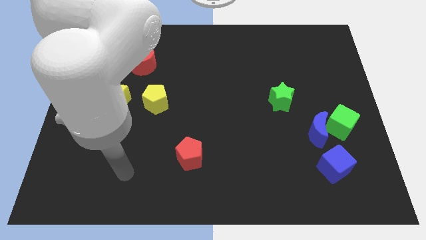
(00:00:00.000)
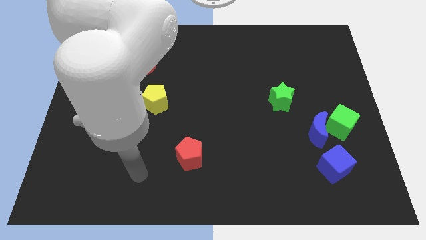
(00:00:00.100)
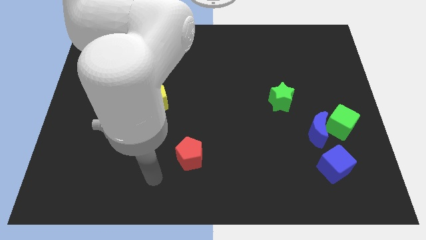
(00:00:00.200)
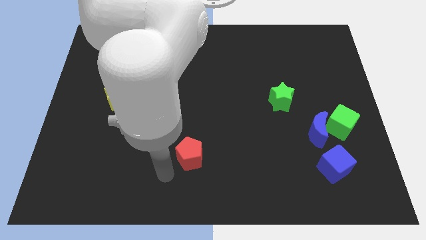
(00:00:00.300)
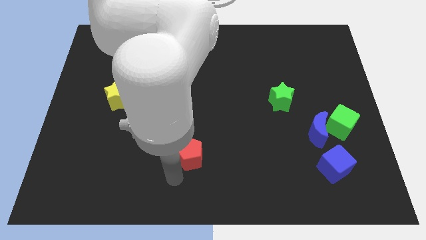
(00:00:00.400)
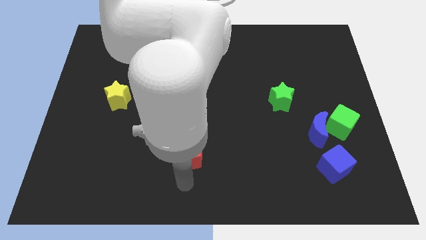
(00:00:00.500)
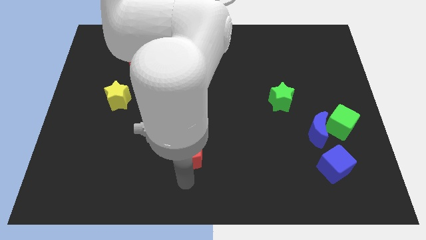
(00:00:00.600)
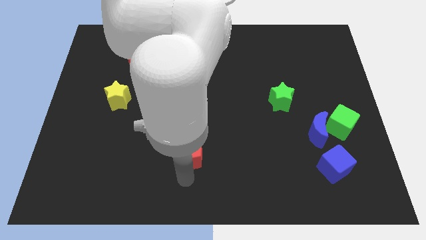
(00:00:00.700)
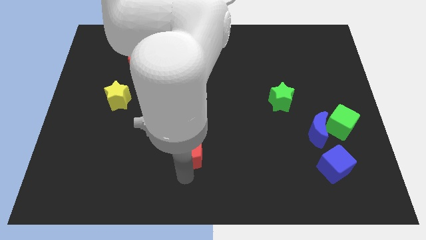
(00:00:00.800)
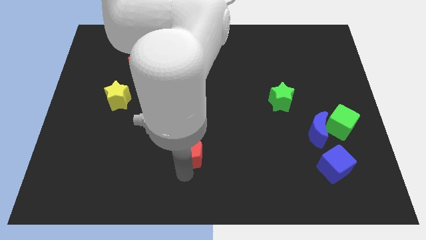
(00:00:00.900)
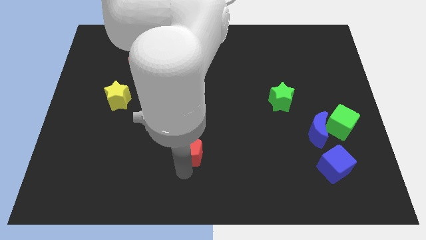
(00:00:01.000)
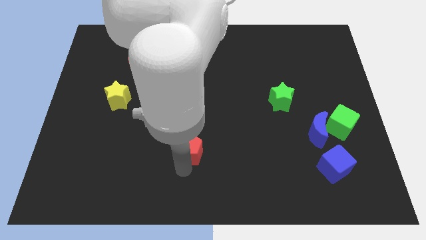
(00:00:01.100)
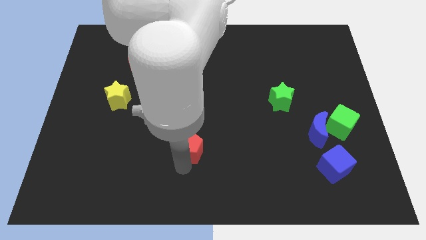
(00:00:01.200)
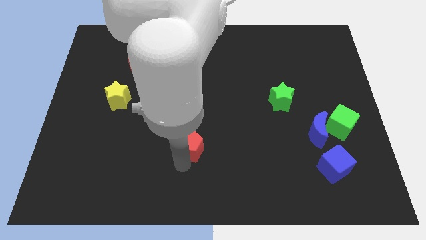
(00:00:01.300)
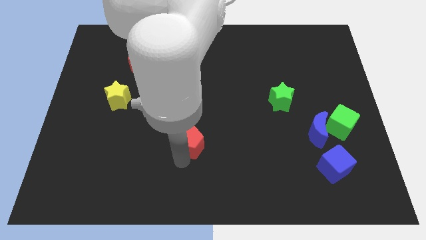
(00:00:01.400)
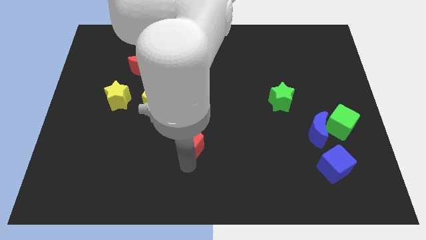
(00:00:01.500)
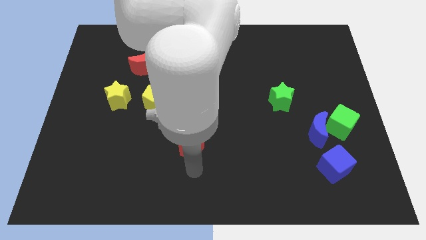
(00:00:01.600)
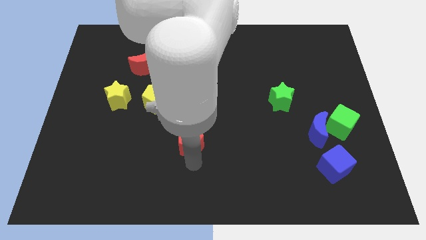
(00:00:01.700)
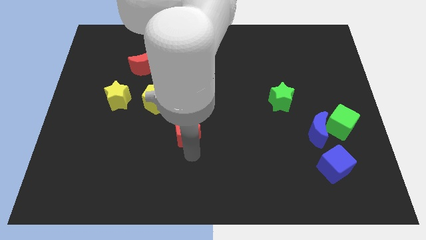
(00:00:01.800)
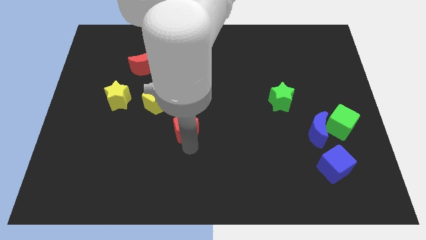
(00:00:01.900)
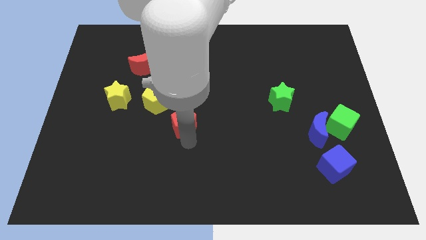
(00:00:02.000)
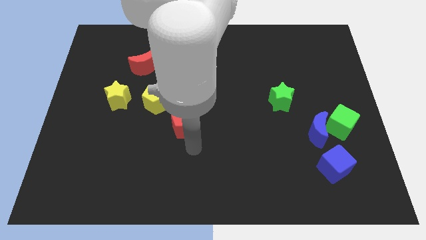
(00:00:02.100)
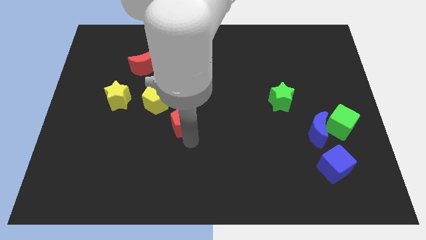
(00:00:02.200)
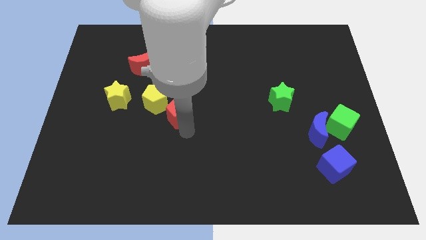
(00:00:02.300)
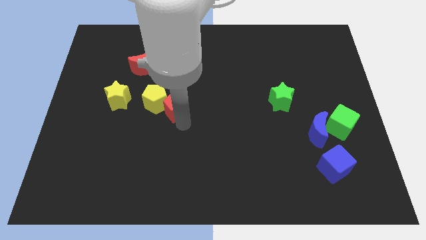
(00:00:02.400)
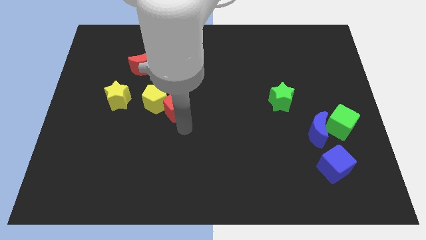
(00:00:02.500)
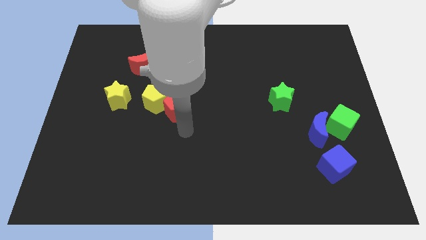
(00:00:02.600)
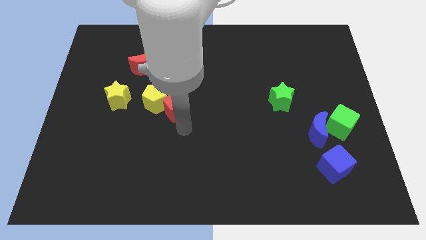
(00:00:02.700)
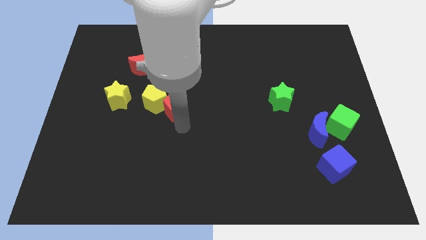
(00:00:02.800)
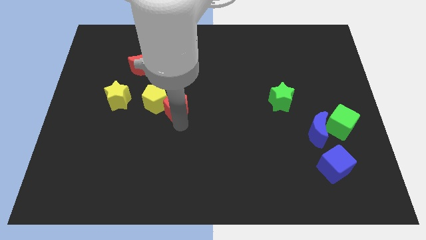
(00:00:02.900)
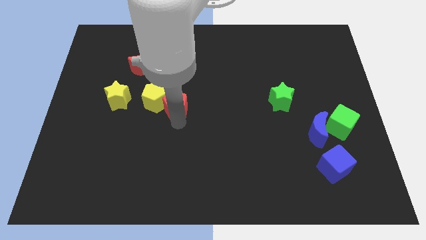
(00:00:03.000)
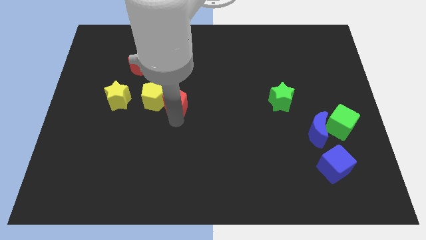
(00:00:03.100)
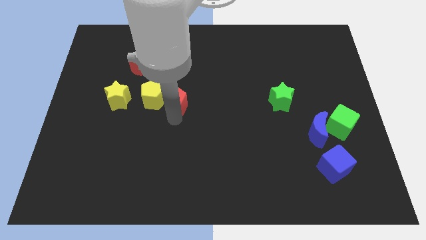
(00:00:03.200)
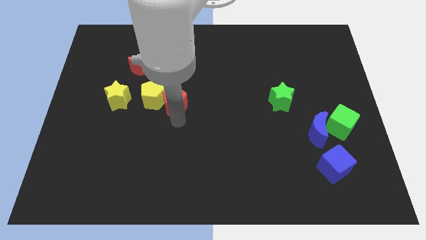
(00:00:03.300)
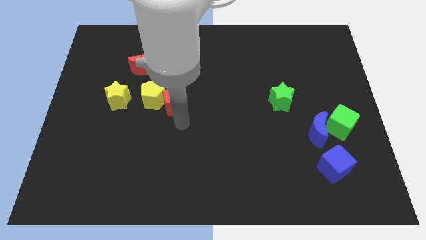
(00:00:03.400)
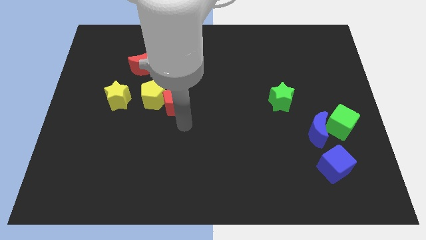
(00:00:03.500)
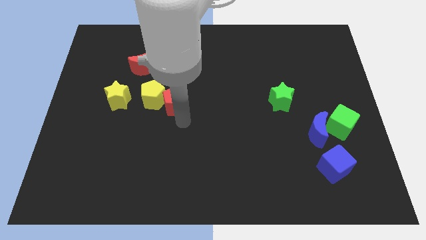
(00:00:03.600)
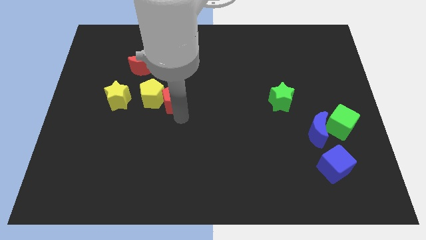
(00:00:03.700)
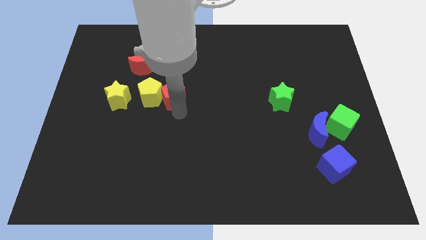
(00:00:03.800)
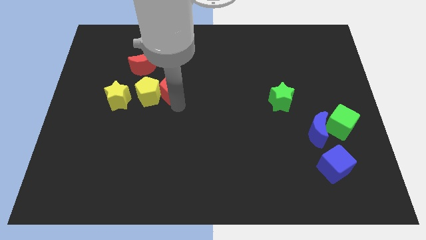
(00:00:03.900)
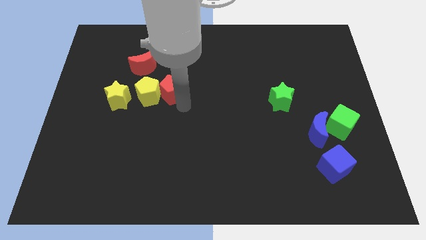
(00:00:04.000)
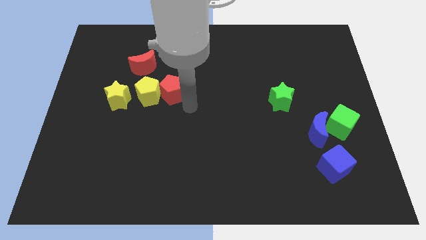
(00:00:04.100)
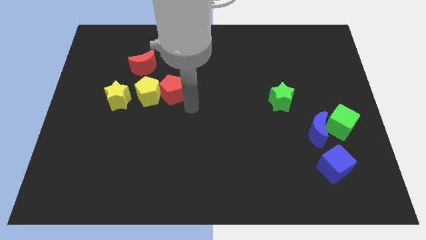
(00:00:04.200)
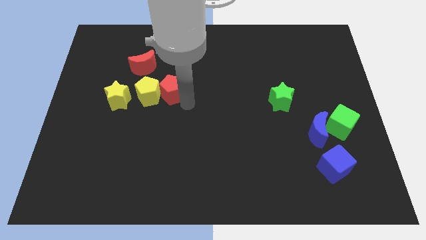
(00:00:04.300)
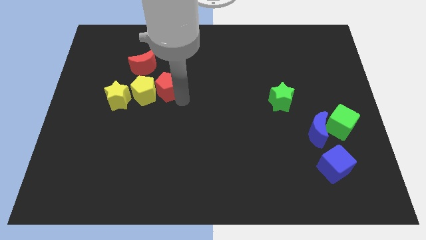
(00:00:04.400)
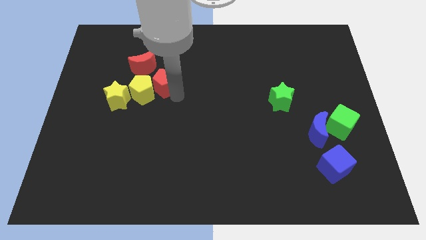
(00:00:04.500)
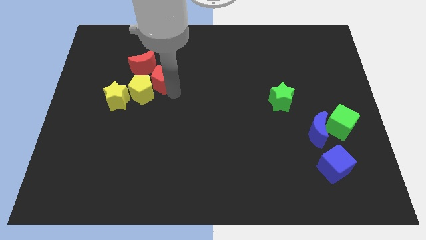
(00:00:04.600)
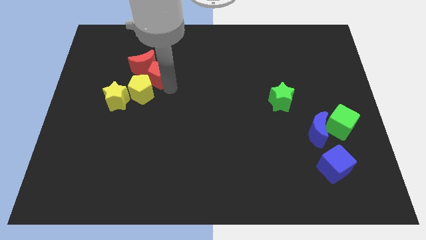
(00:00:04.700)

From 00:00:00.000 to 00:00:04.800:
put the red pentagon next to the red moon

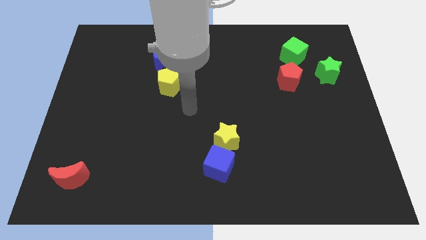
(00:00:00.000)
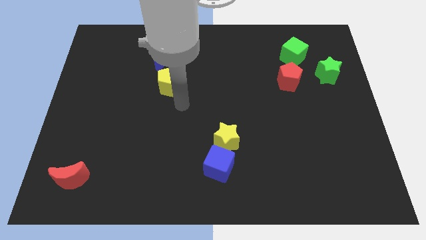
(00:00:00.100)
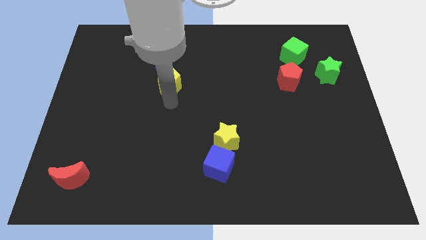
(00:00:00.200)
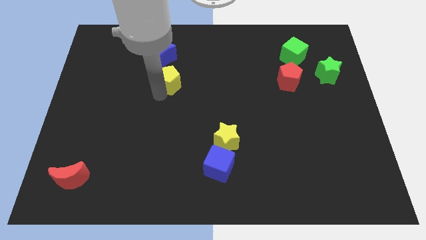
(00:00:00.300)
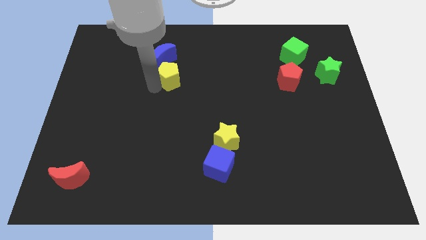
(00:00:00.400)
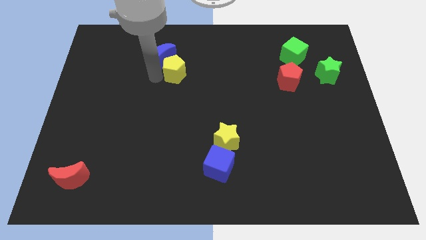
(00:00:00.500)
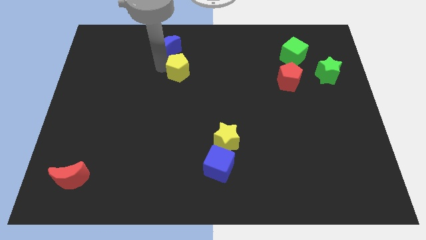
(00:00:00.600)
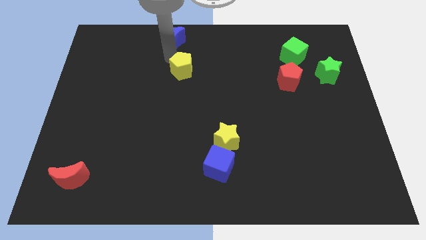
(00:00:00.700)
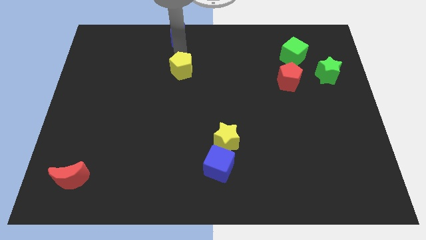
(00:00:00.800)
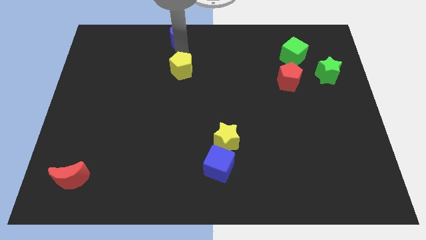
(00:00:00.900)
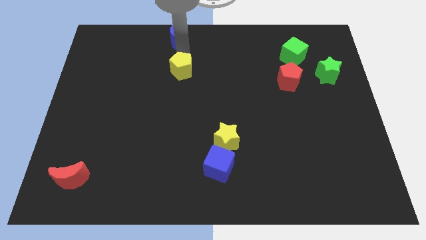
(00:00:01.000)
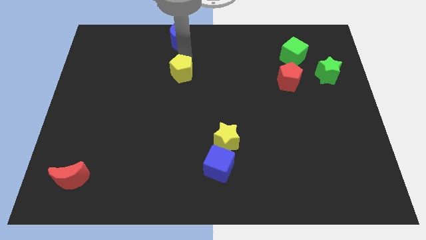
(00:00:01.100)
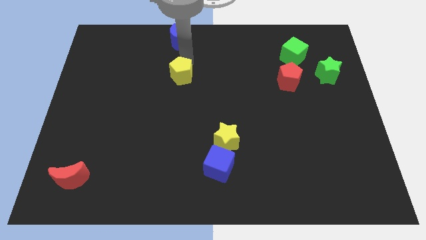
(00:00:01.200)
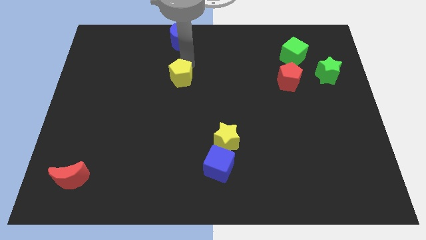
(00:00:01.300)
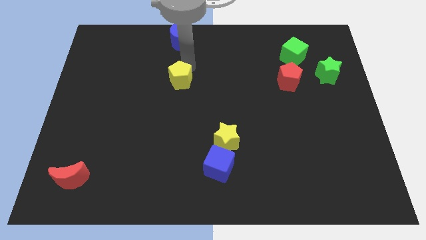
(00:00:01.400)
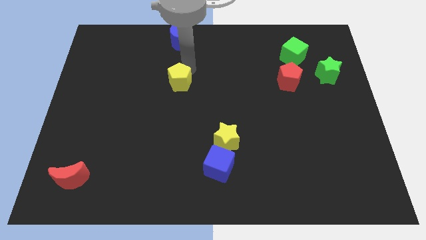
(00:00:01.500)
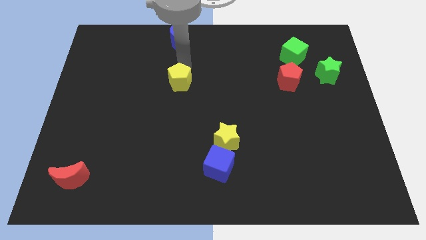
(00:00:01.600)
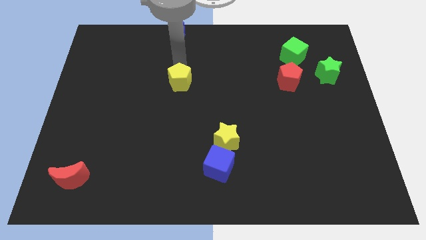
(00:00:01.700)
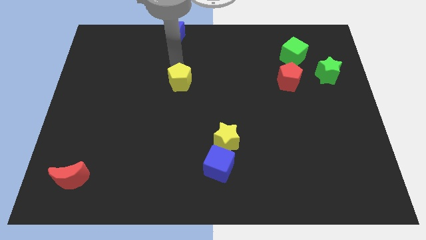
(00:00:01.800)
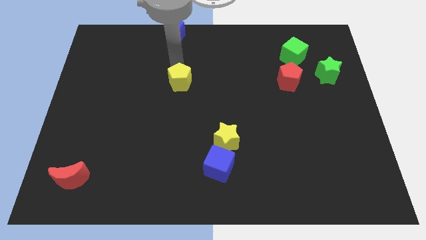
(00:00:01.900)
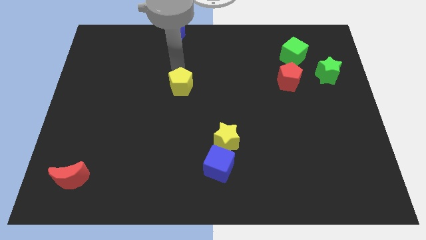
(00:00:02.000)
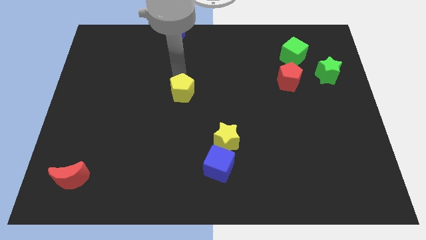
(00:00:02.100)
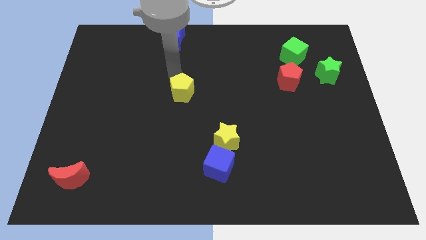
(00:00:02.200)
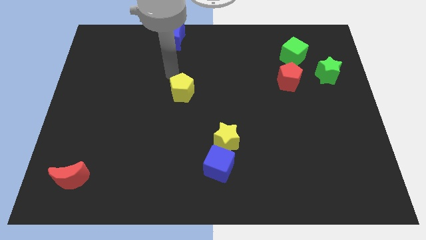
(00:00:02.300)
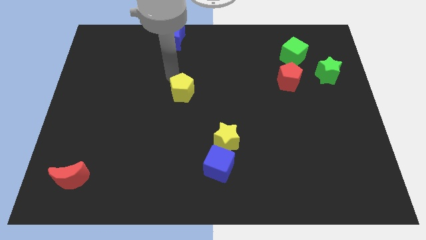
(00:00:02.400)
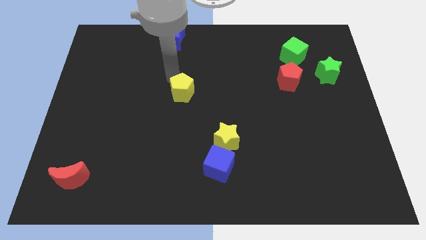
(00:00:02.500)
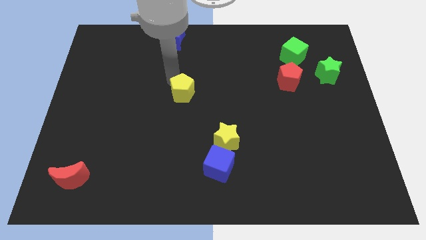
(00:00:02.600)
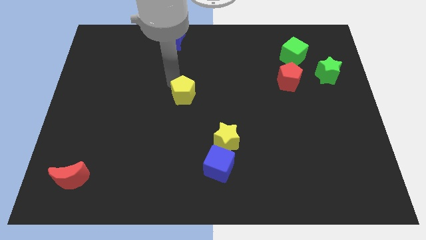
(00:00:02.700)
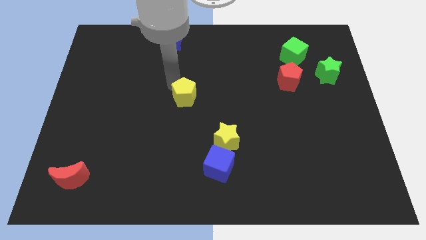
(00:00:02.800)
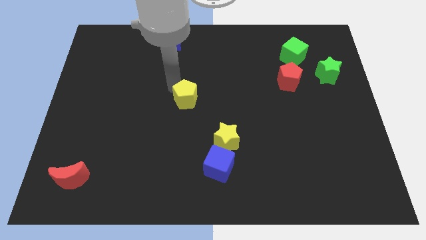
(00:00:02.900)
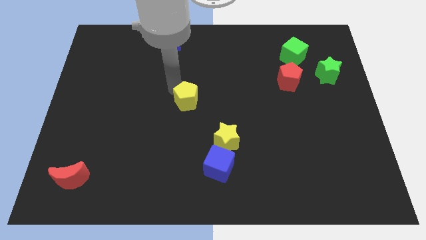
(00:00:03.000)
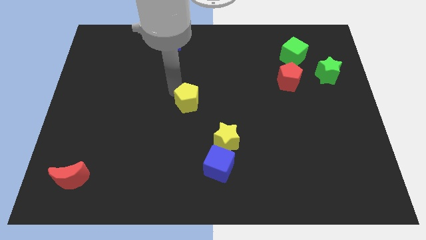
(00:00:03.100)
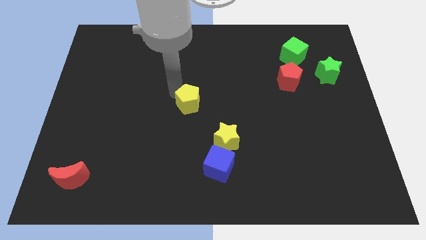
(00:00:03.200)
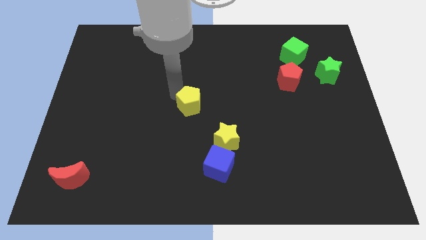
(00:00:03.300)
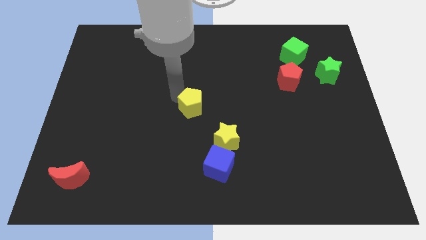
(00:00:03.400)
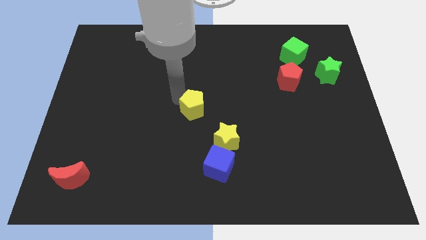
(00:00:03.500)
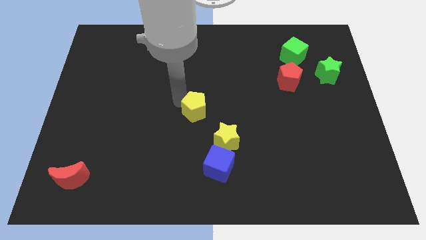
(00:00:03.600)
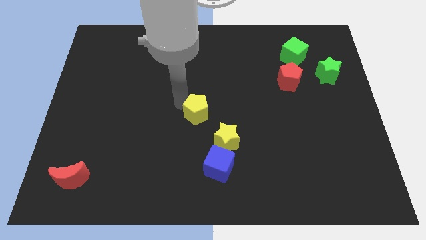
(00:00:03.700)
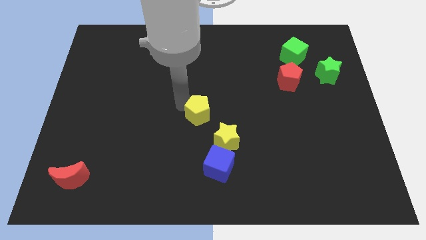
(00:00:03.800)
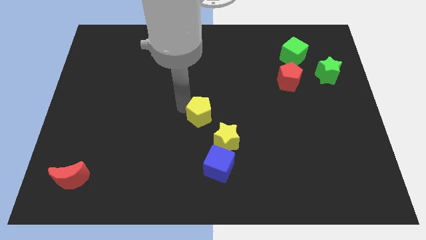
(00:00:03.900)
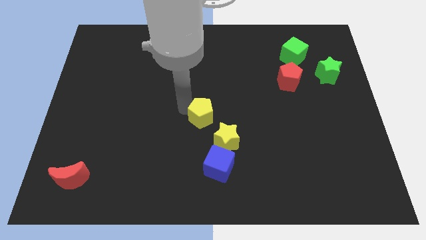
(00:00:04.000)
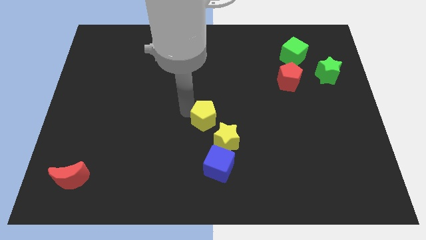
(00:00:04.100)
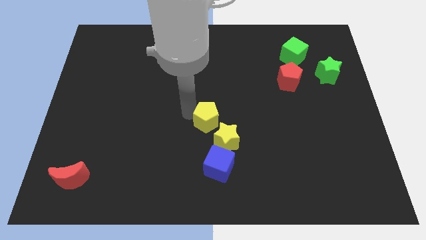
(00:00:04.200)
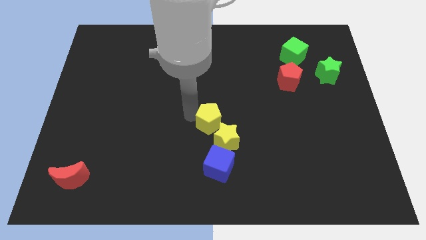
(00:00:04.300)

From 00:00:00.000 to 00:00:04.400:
push the yellow pentagon to the yellow star
